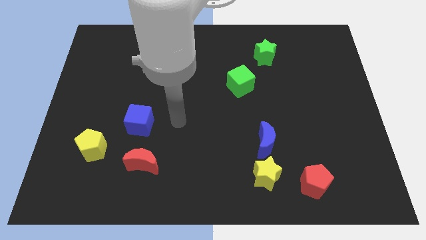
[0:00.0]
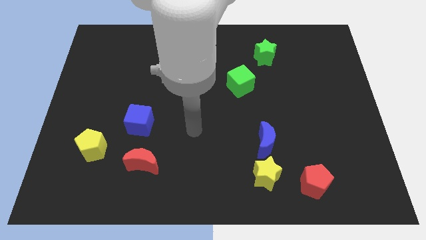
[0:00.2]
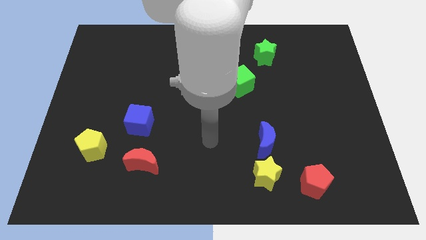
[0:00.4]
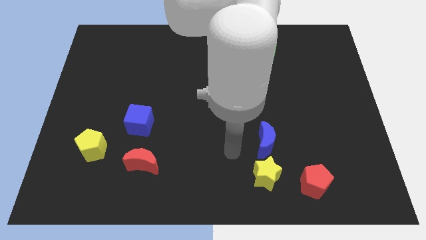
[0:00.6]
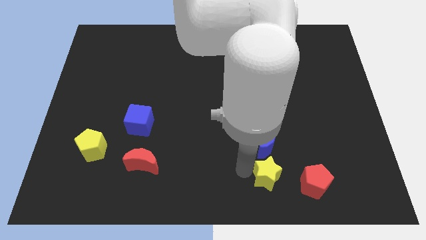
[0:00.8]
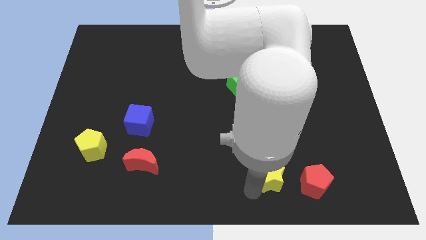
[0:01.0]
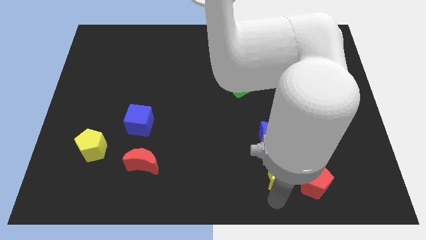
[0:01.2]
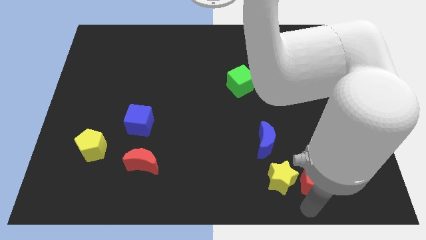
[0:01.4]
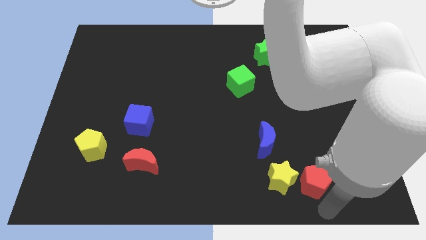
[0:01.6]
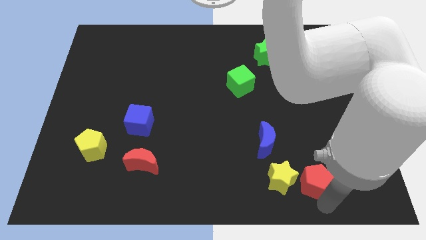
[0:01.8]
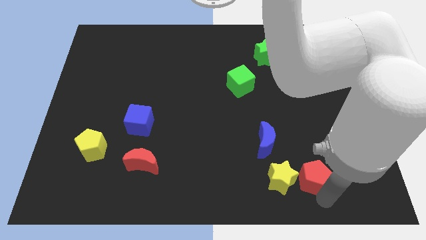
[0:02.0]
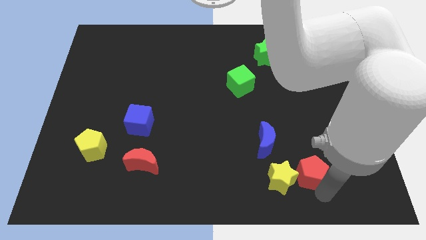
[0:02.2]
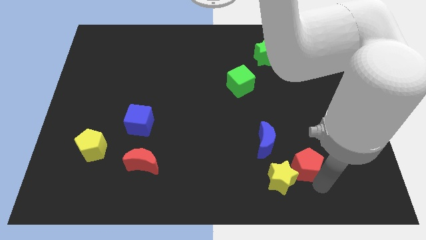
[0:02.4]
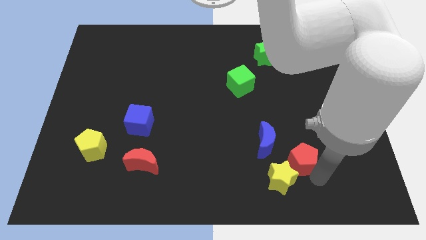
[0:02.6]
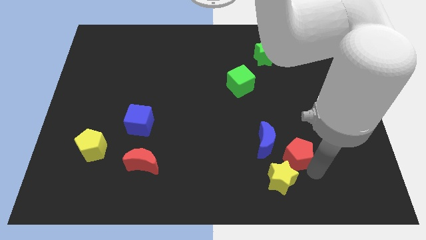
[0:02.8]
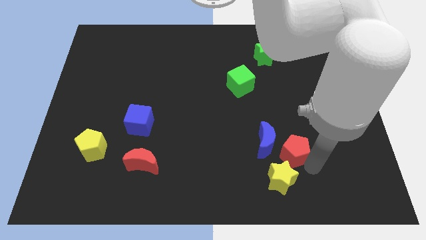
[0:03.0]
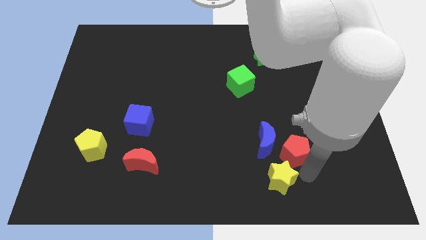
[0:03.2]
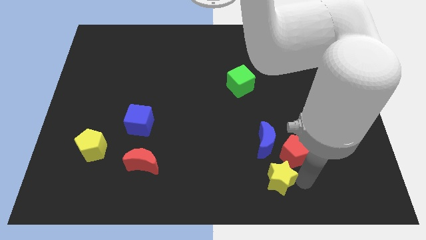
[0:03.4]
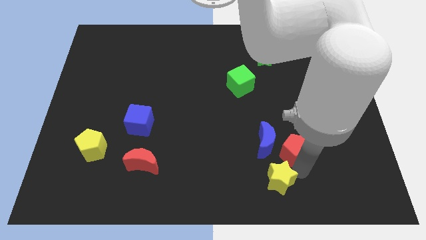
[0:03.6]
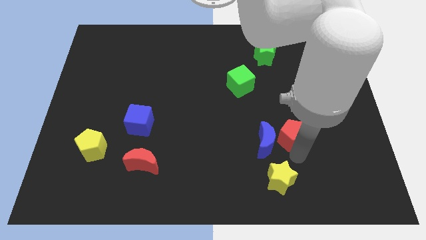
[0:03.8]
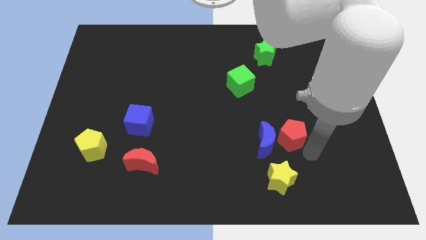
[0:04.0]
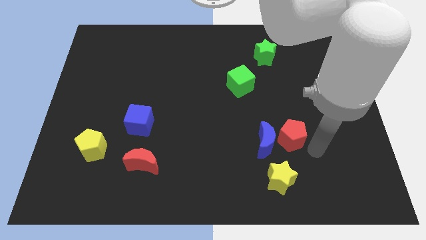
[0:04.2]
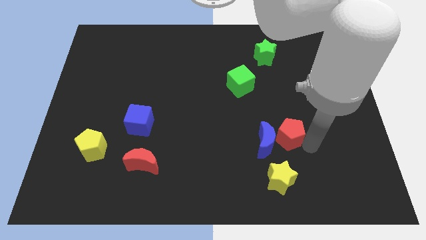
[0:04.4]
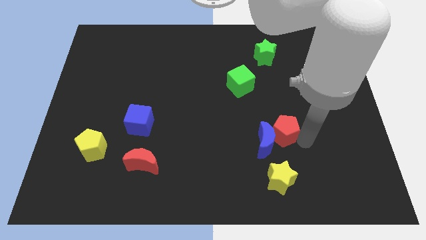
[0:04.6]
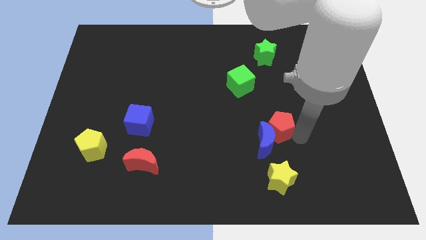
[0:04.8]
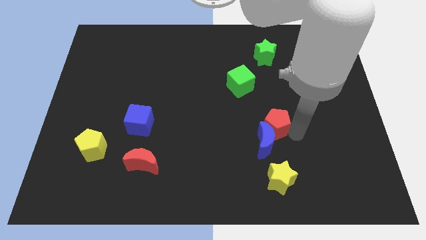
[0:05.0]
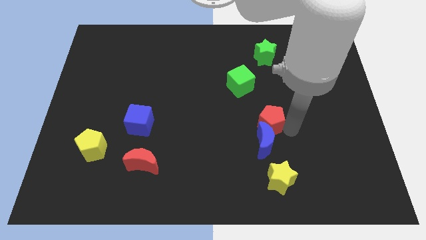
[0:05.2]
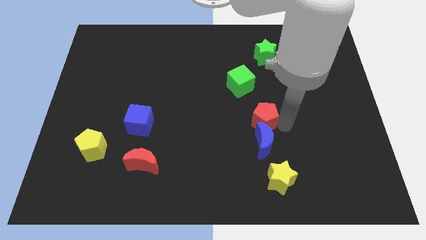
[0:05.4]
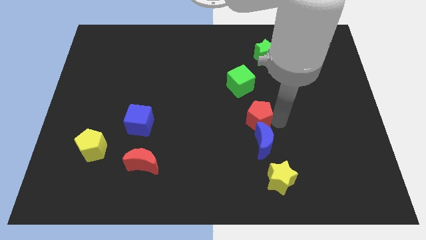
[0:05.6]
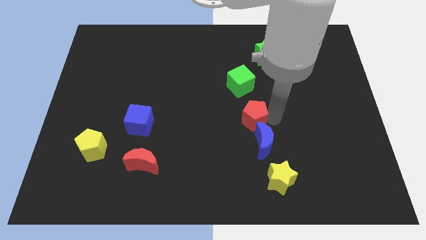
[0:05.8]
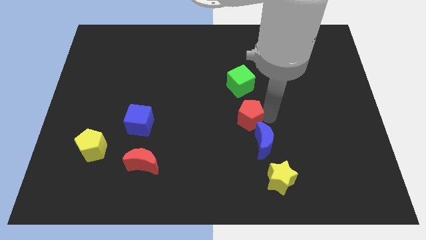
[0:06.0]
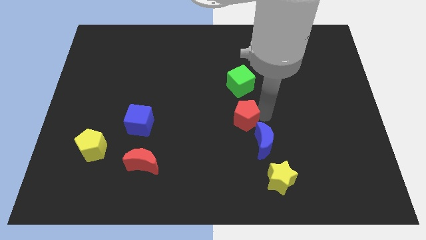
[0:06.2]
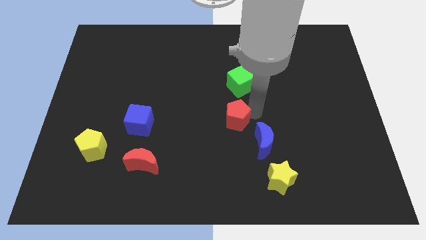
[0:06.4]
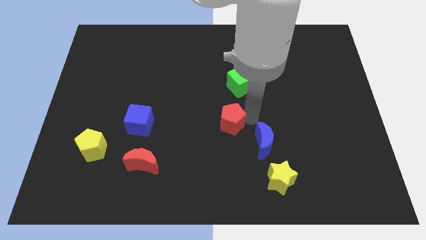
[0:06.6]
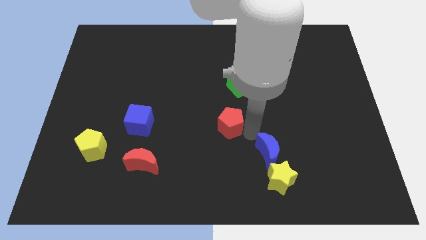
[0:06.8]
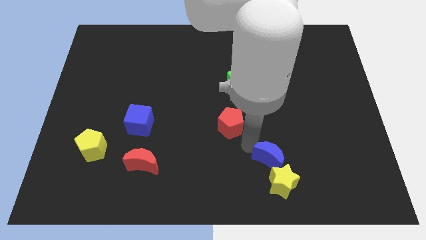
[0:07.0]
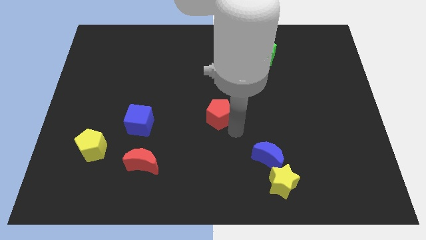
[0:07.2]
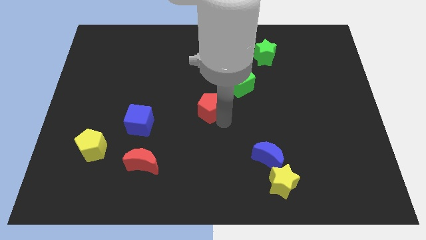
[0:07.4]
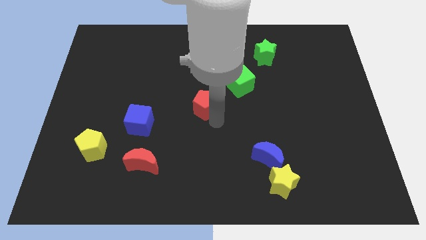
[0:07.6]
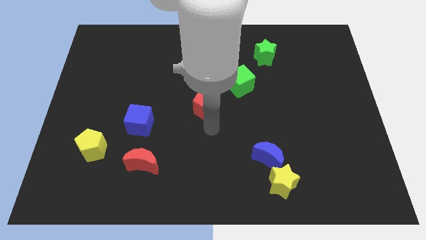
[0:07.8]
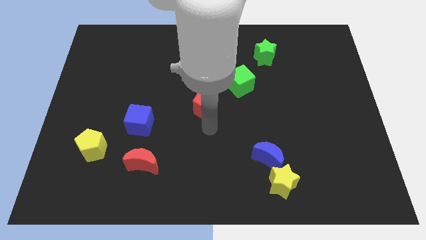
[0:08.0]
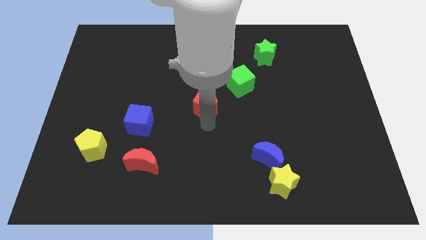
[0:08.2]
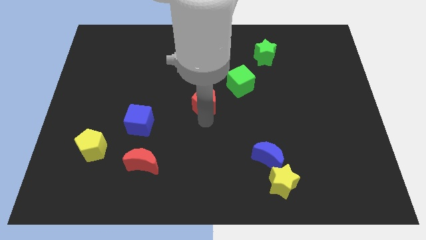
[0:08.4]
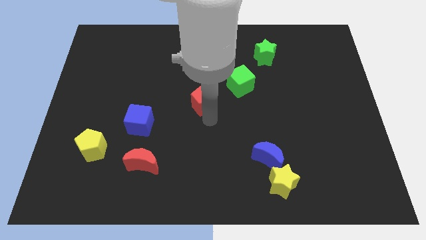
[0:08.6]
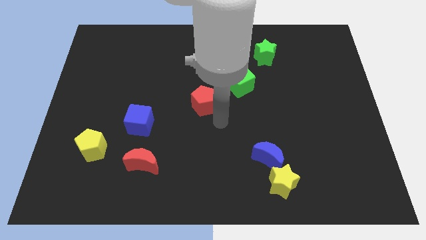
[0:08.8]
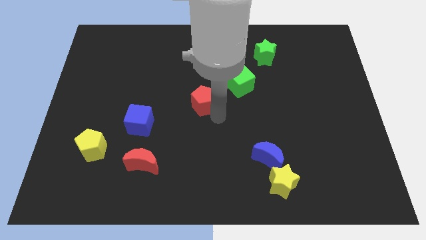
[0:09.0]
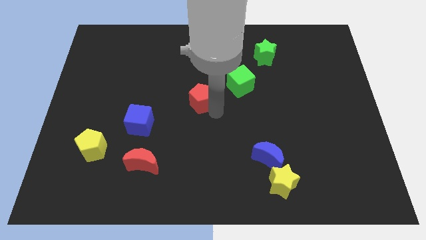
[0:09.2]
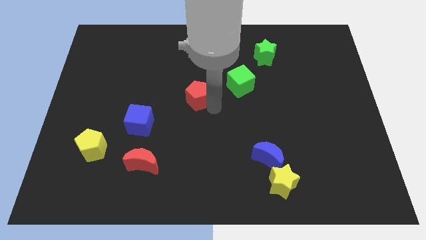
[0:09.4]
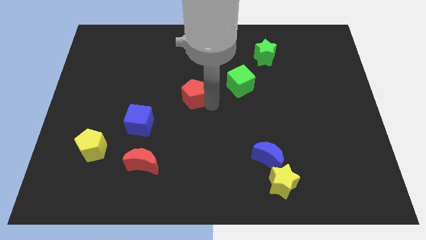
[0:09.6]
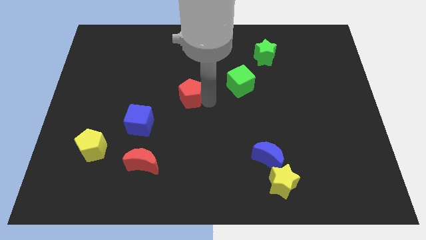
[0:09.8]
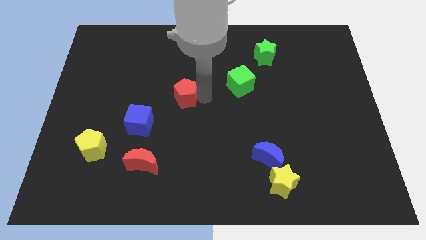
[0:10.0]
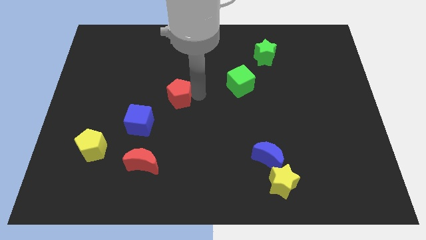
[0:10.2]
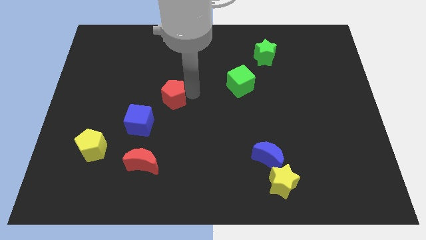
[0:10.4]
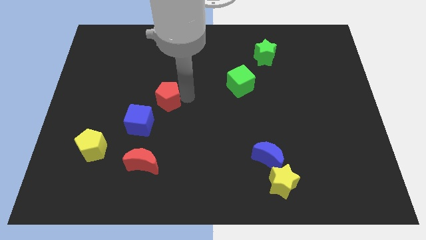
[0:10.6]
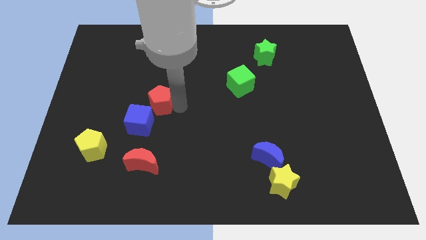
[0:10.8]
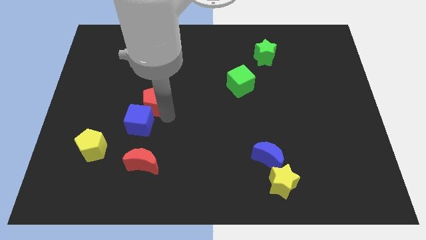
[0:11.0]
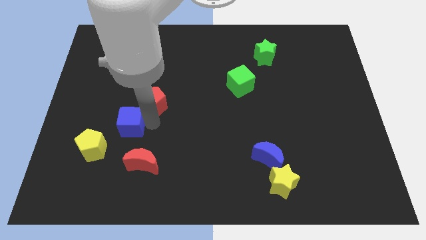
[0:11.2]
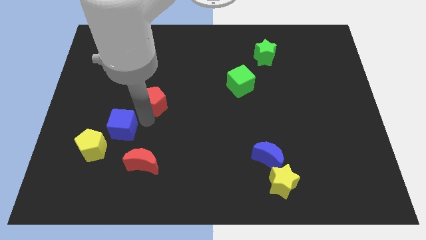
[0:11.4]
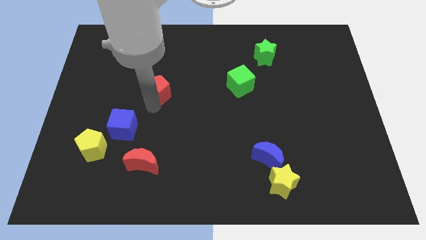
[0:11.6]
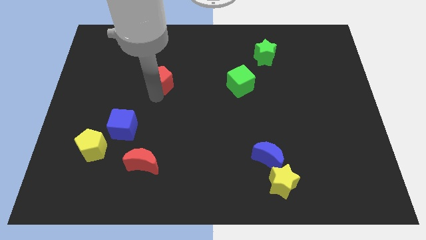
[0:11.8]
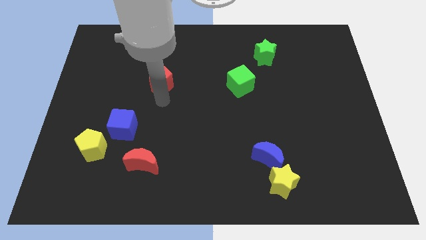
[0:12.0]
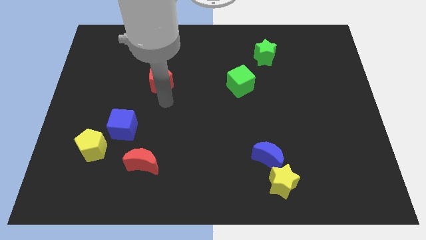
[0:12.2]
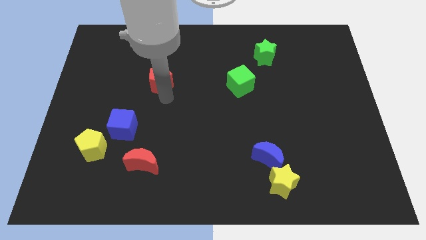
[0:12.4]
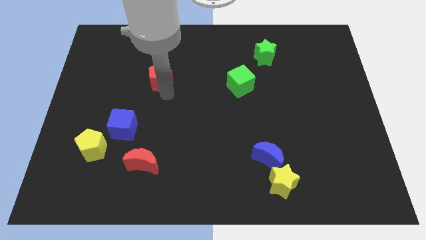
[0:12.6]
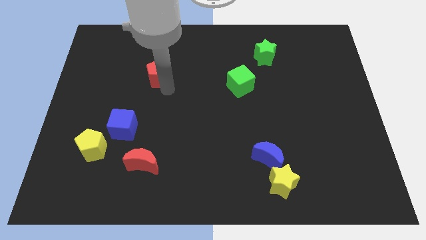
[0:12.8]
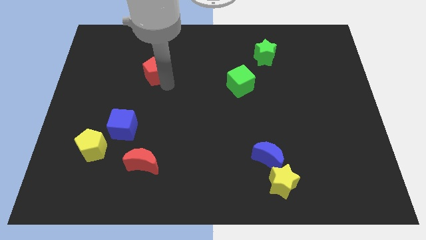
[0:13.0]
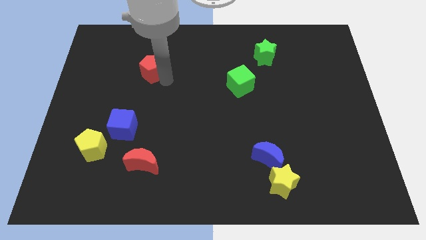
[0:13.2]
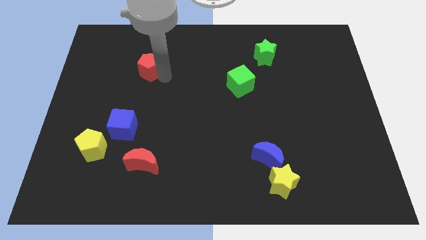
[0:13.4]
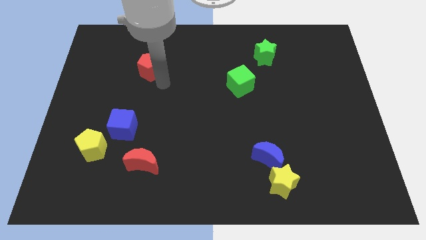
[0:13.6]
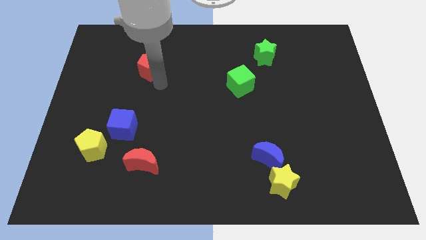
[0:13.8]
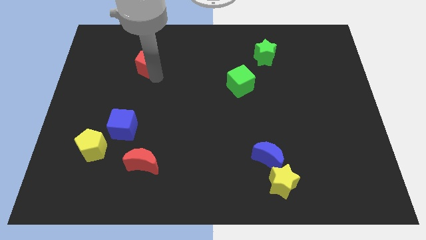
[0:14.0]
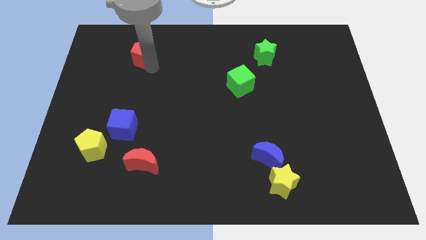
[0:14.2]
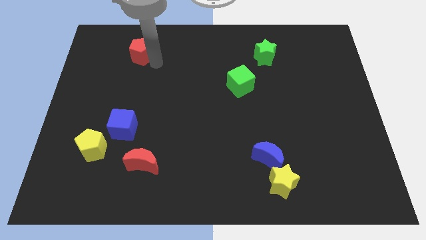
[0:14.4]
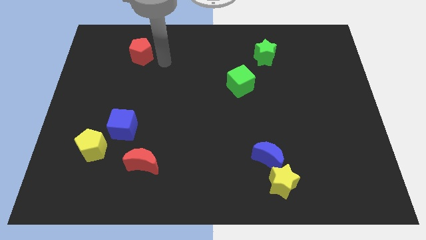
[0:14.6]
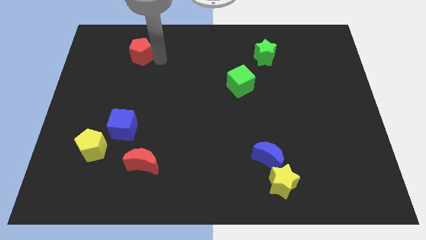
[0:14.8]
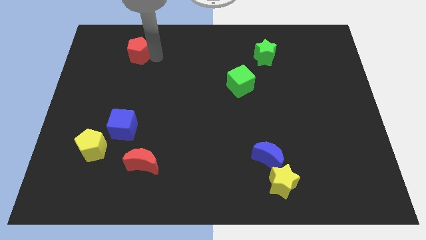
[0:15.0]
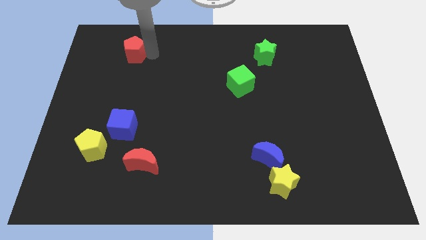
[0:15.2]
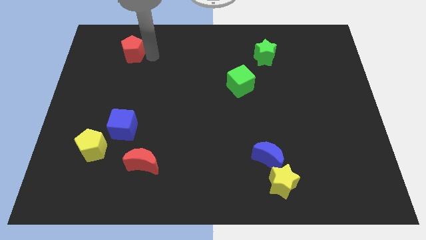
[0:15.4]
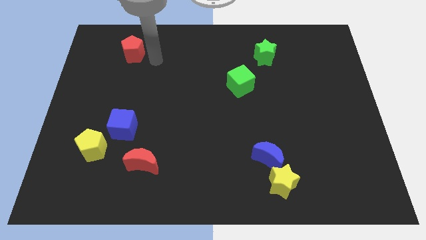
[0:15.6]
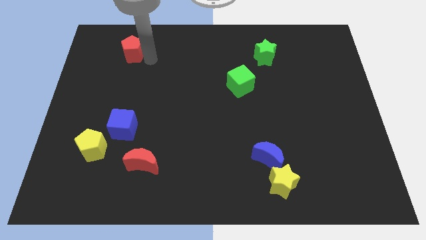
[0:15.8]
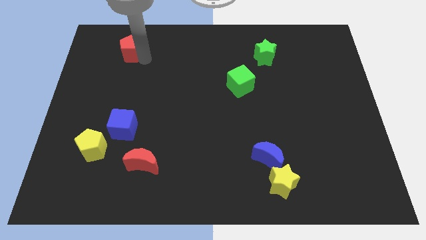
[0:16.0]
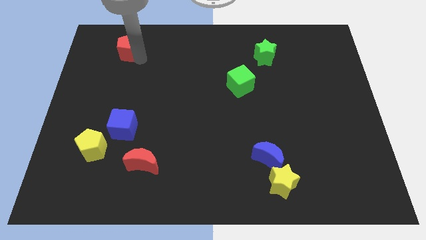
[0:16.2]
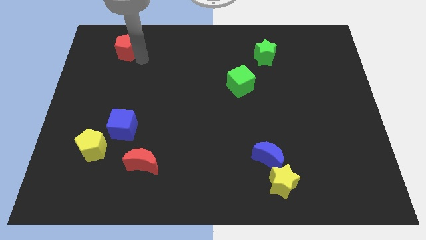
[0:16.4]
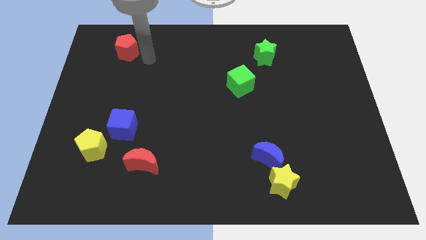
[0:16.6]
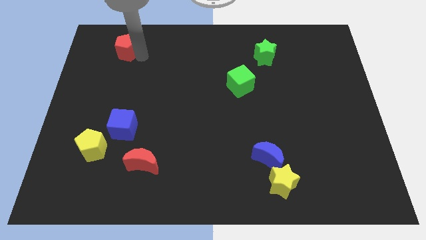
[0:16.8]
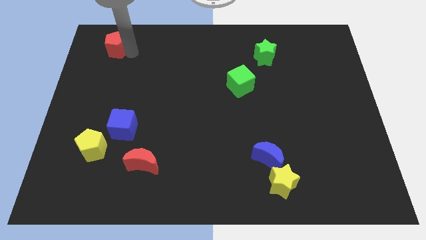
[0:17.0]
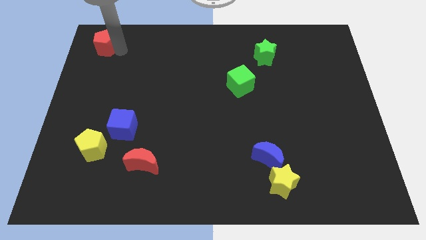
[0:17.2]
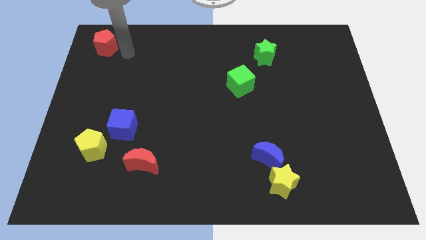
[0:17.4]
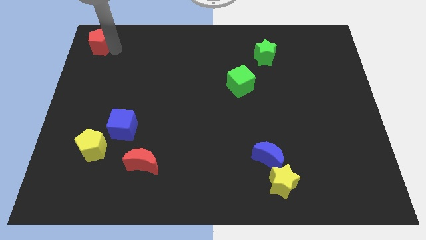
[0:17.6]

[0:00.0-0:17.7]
move the red pentagon to the top left corner
